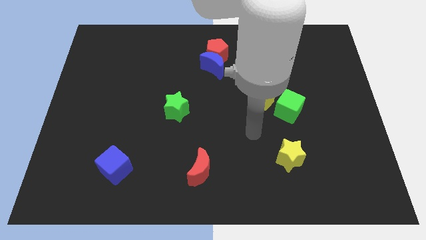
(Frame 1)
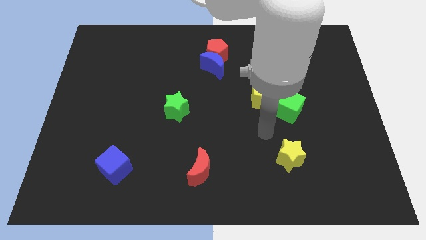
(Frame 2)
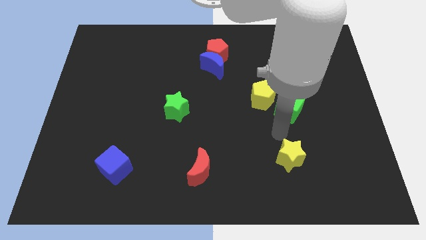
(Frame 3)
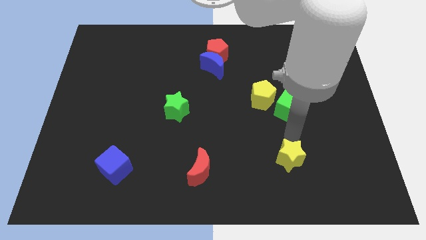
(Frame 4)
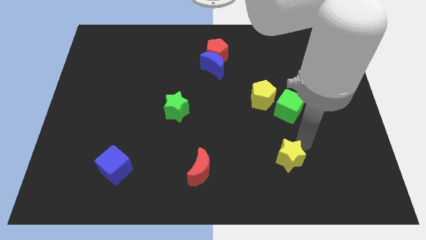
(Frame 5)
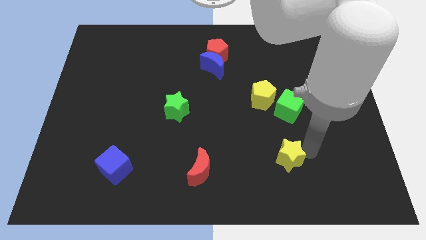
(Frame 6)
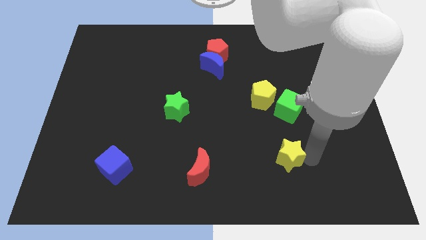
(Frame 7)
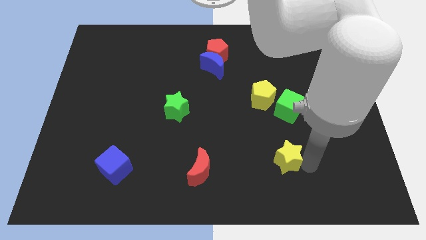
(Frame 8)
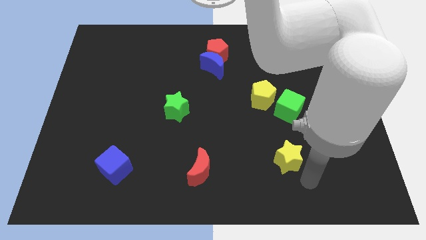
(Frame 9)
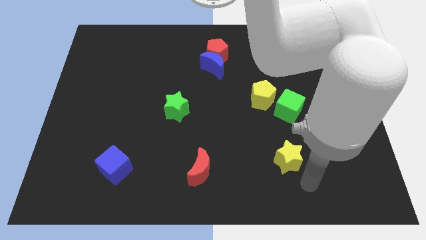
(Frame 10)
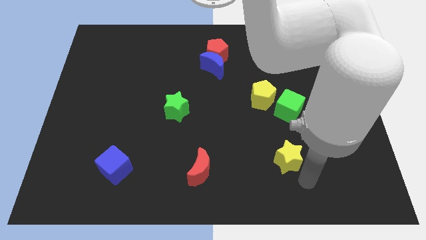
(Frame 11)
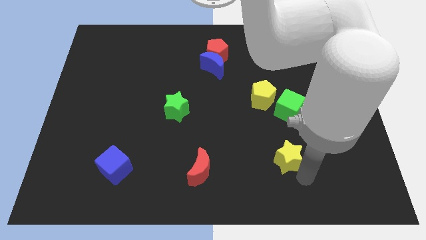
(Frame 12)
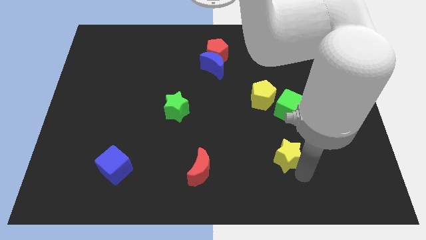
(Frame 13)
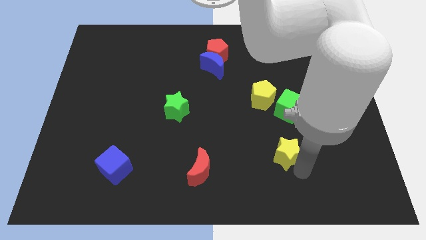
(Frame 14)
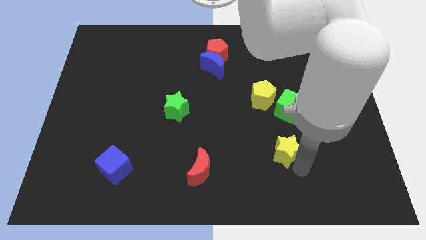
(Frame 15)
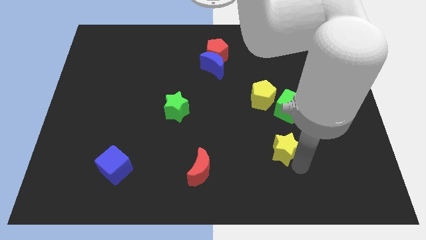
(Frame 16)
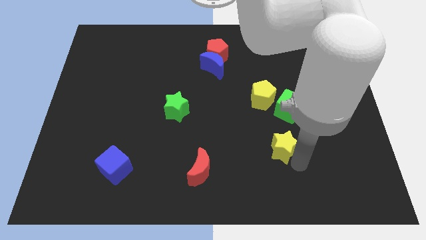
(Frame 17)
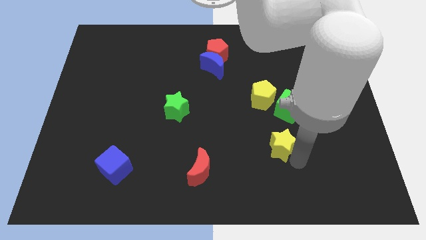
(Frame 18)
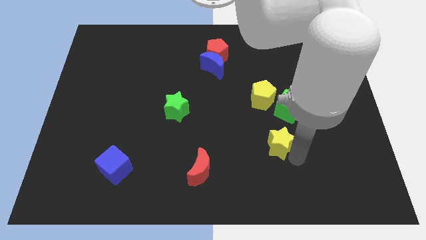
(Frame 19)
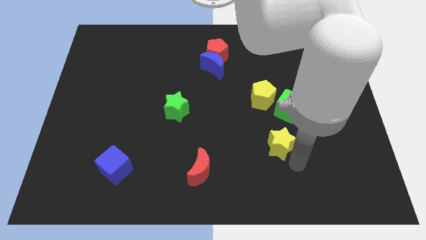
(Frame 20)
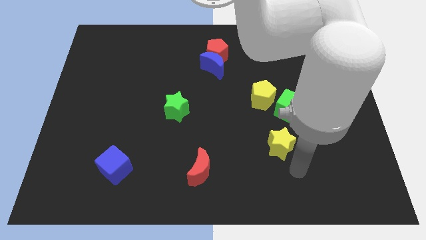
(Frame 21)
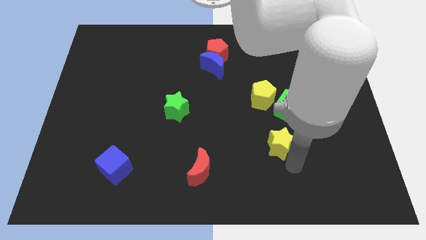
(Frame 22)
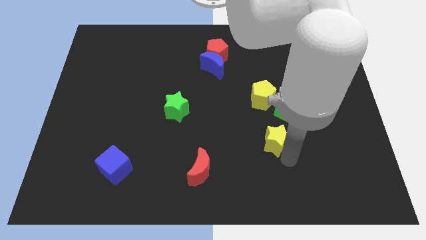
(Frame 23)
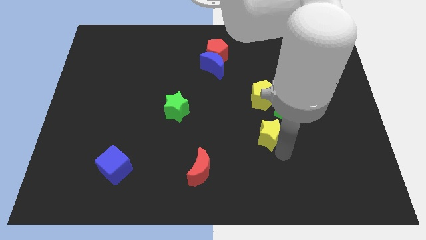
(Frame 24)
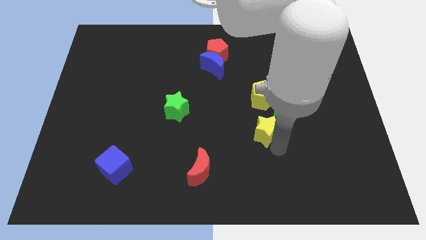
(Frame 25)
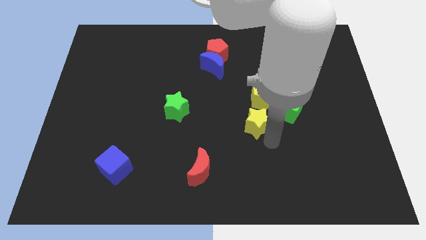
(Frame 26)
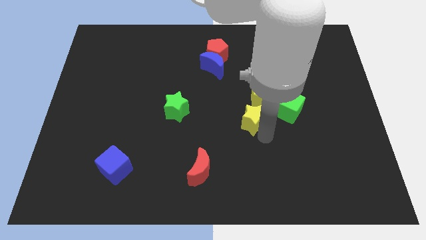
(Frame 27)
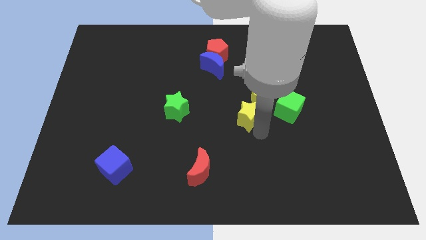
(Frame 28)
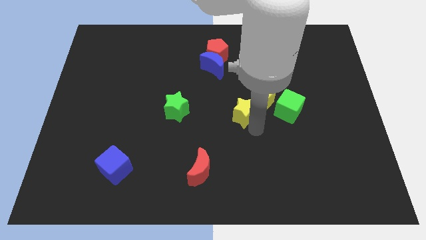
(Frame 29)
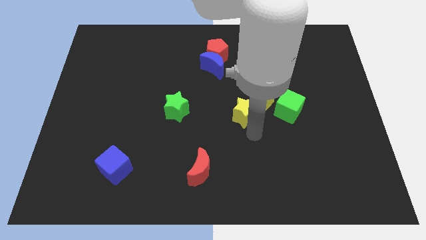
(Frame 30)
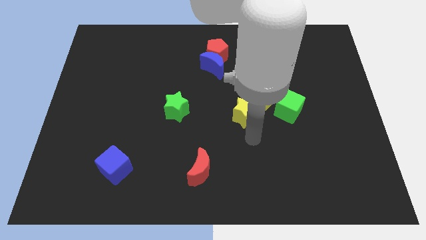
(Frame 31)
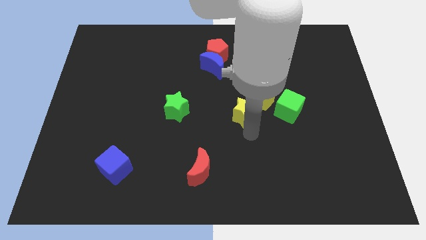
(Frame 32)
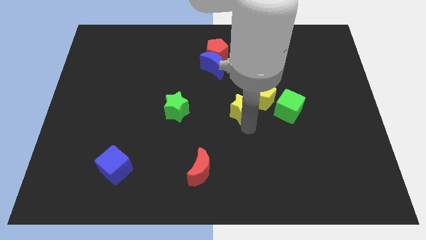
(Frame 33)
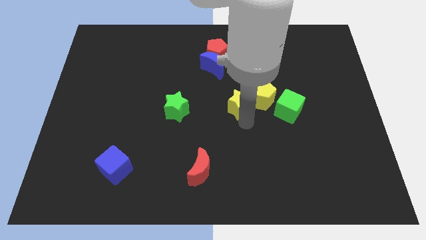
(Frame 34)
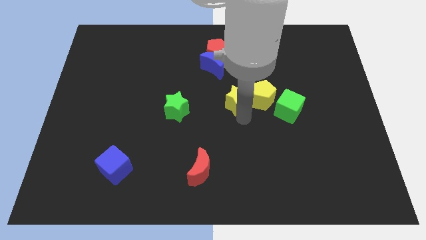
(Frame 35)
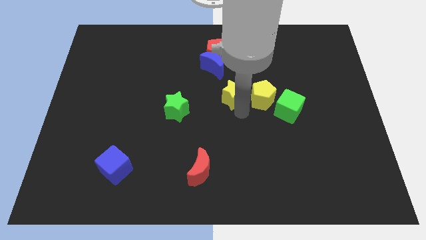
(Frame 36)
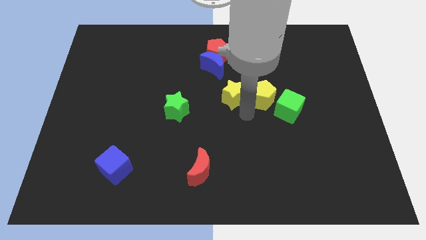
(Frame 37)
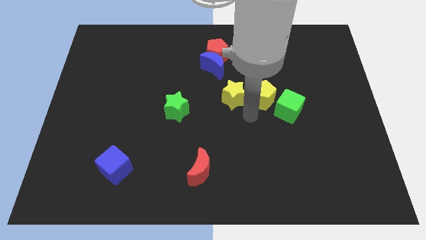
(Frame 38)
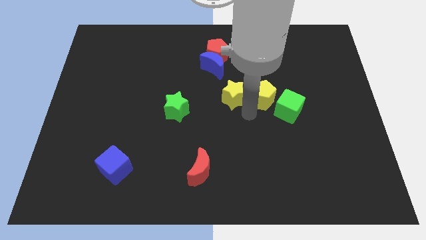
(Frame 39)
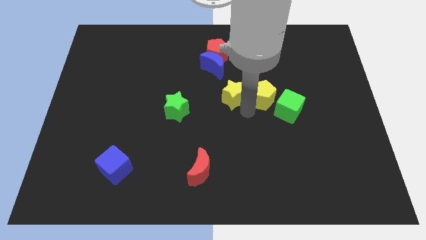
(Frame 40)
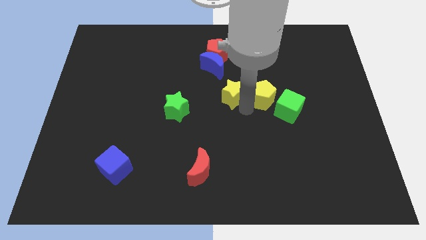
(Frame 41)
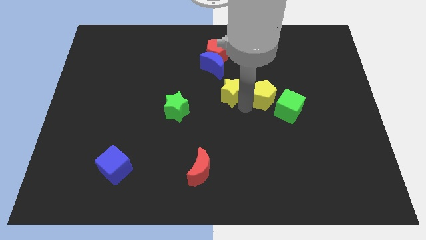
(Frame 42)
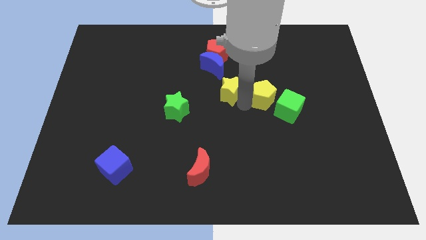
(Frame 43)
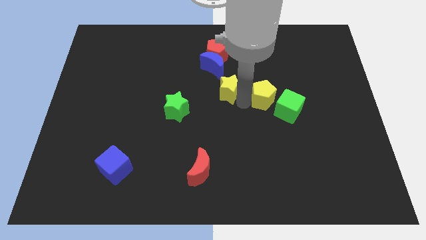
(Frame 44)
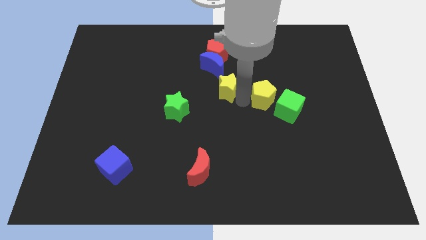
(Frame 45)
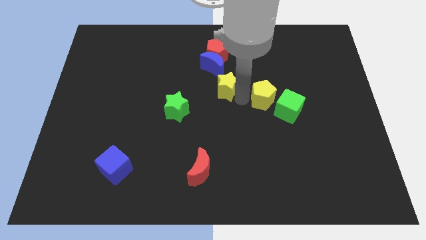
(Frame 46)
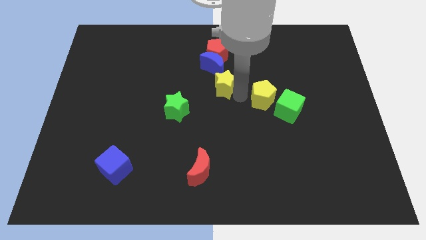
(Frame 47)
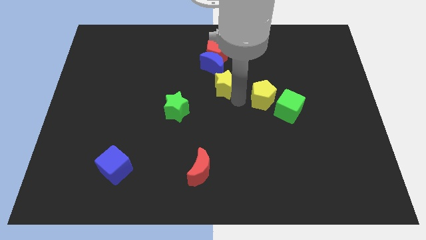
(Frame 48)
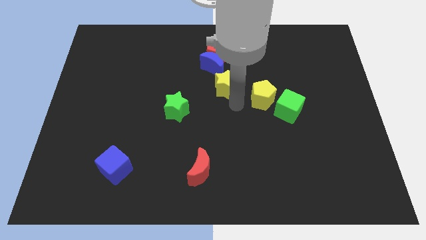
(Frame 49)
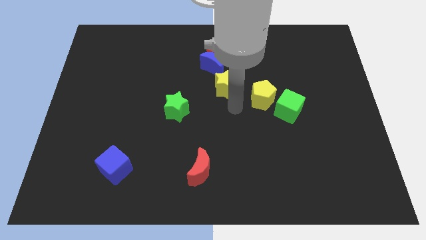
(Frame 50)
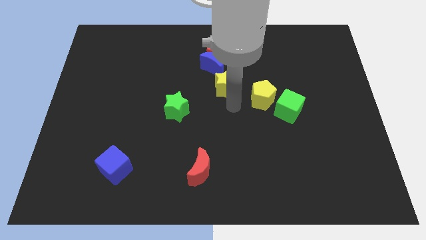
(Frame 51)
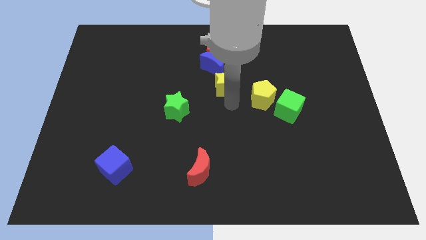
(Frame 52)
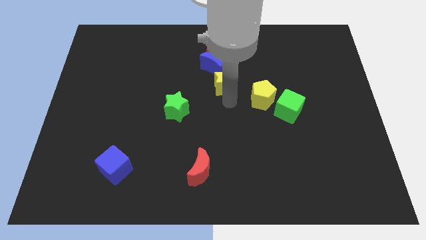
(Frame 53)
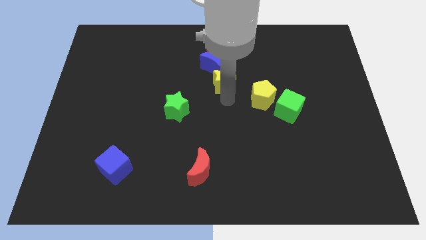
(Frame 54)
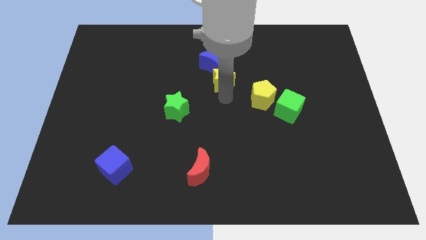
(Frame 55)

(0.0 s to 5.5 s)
move the yellow star next to the blue moon

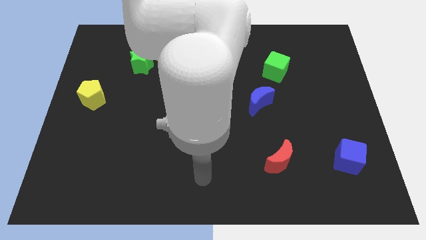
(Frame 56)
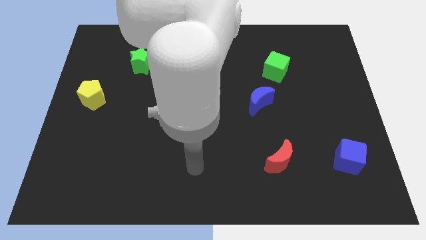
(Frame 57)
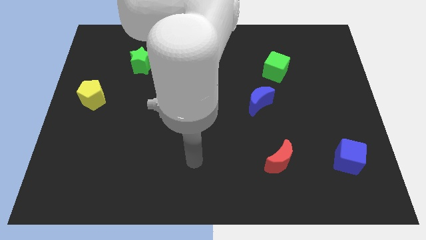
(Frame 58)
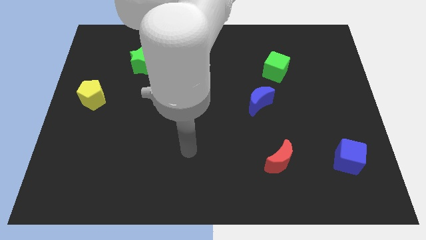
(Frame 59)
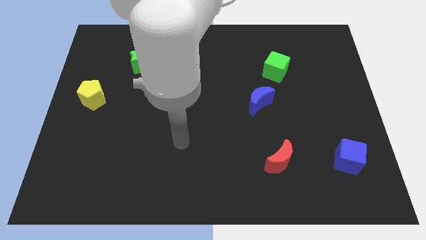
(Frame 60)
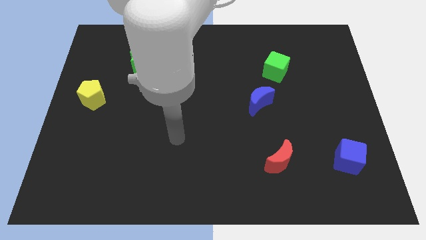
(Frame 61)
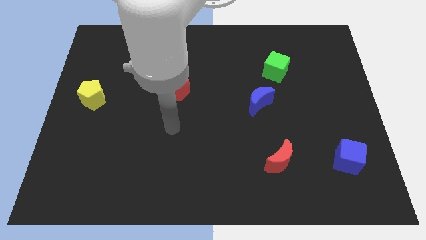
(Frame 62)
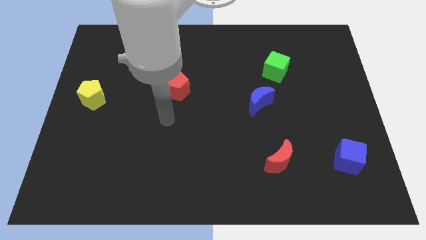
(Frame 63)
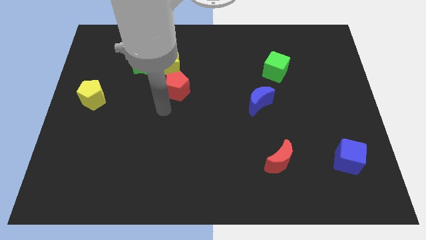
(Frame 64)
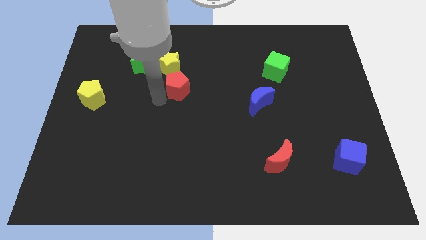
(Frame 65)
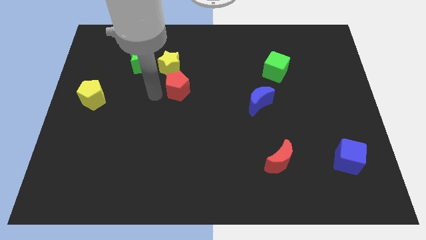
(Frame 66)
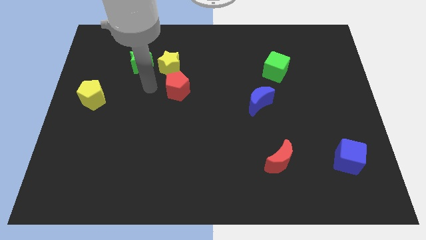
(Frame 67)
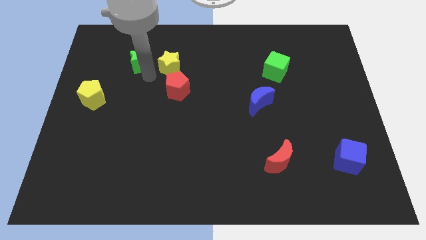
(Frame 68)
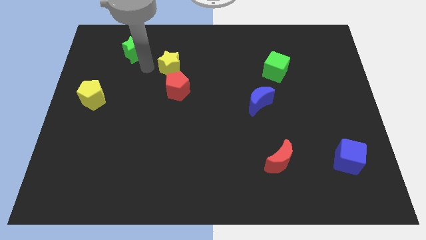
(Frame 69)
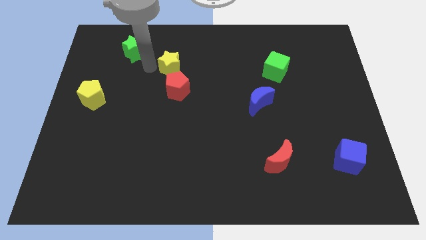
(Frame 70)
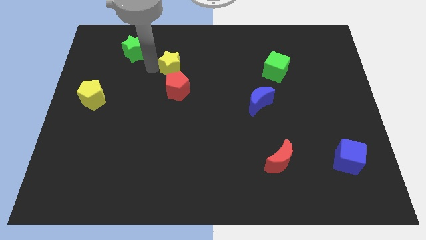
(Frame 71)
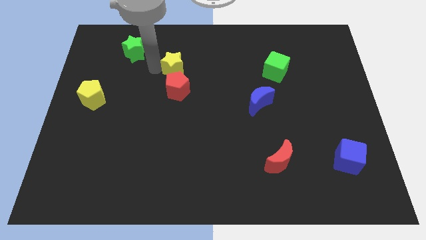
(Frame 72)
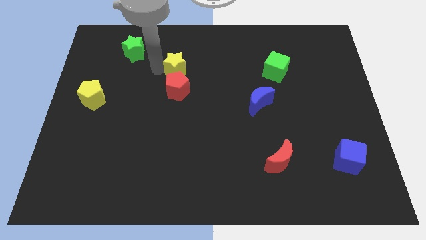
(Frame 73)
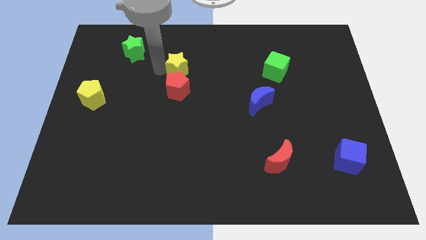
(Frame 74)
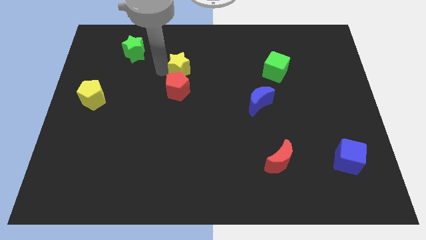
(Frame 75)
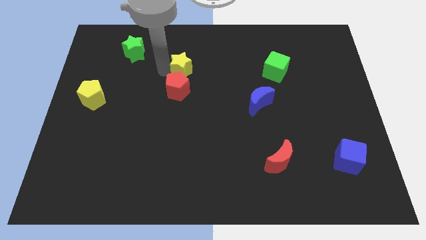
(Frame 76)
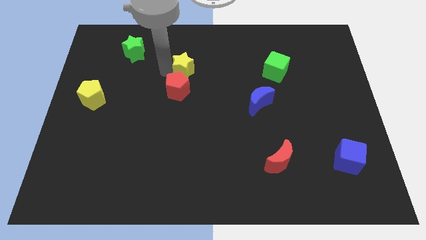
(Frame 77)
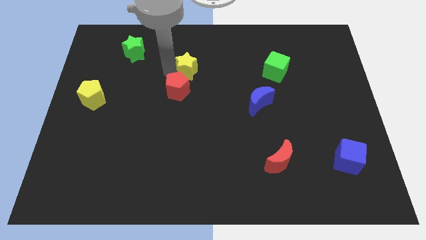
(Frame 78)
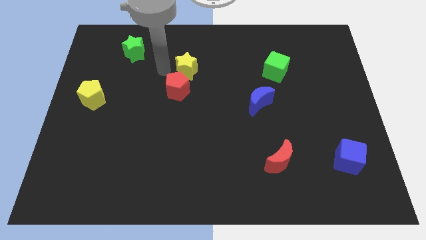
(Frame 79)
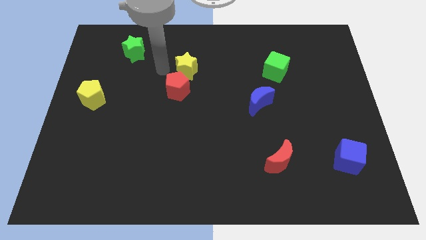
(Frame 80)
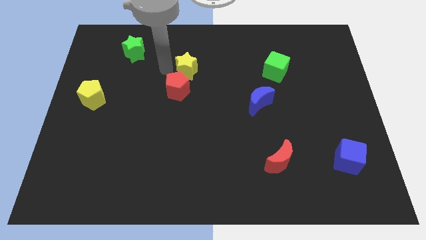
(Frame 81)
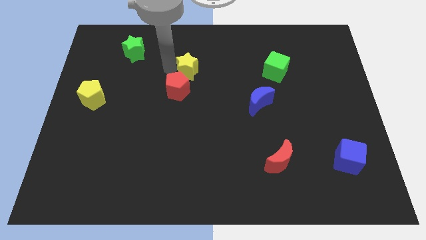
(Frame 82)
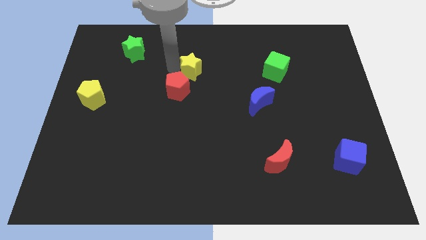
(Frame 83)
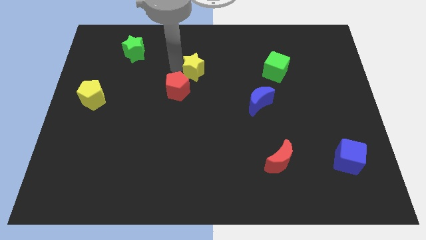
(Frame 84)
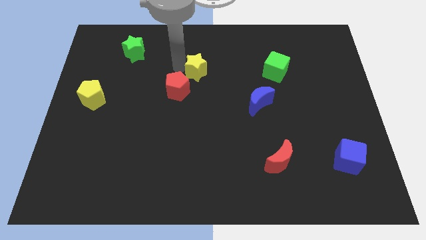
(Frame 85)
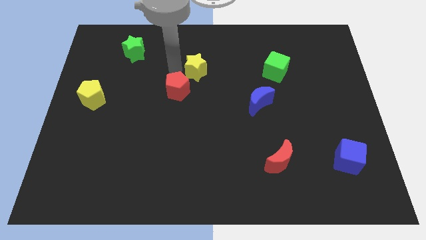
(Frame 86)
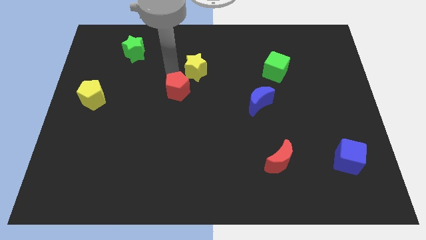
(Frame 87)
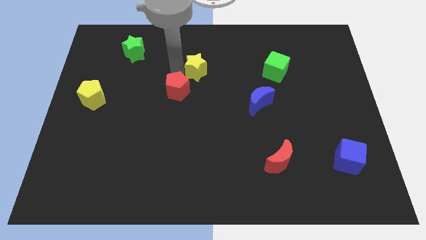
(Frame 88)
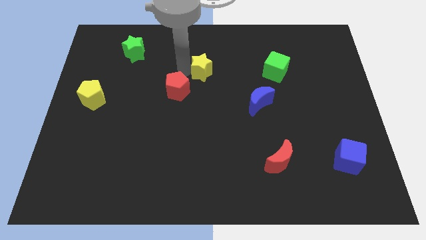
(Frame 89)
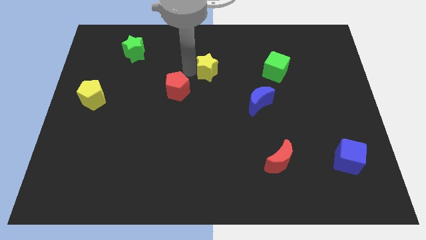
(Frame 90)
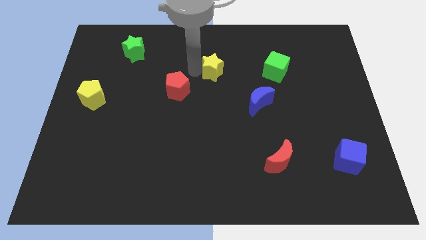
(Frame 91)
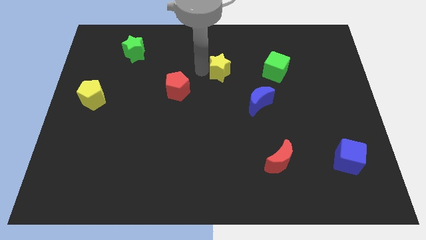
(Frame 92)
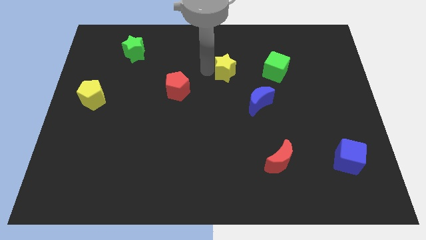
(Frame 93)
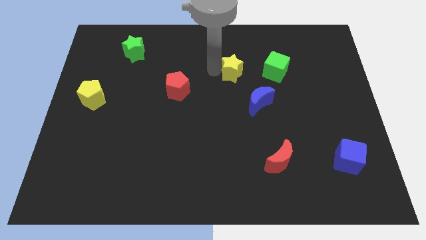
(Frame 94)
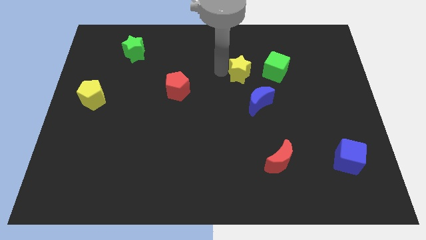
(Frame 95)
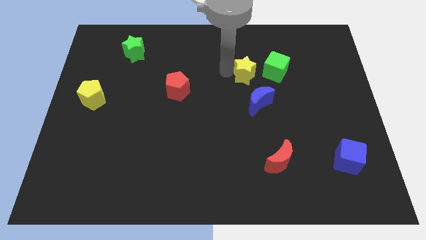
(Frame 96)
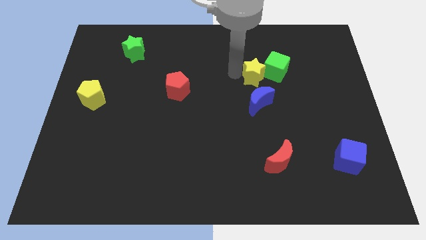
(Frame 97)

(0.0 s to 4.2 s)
move the yellow star close to the green cube
